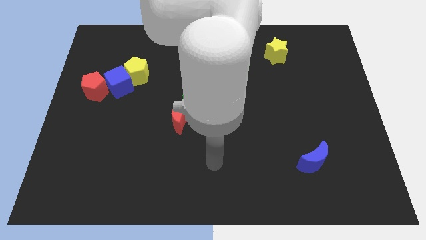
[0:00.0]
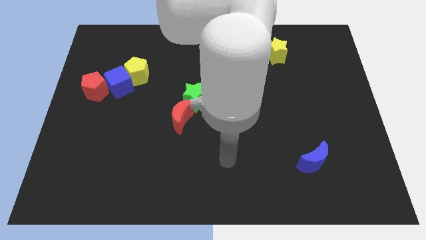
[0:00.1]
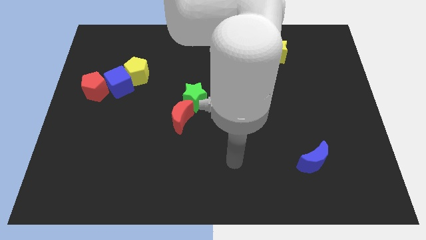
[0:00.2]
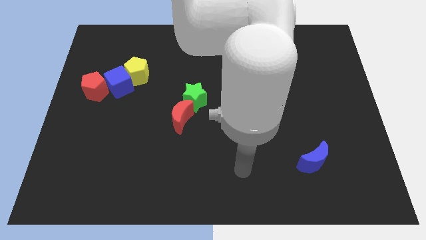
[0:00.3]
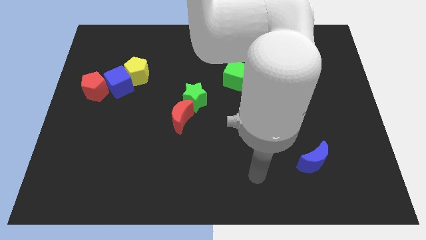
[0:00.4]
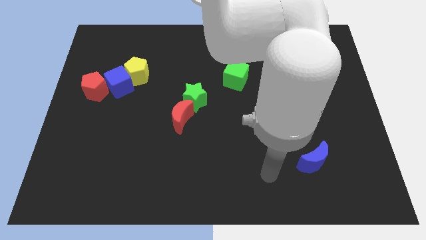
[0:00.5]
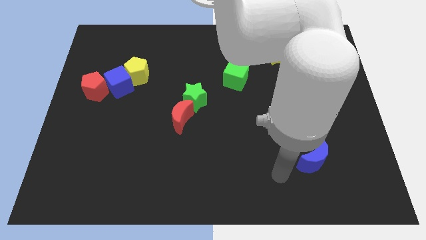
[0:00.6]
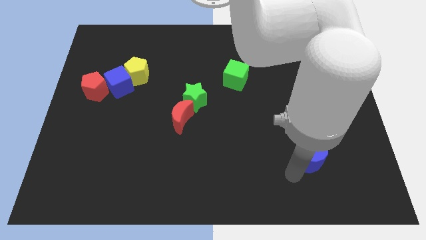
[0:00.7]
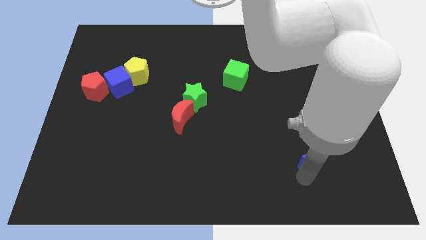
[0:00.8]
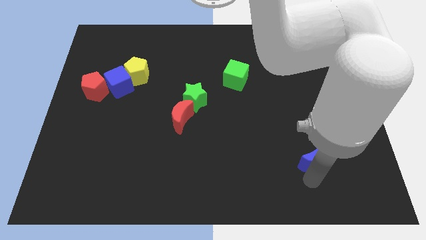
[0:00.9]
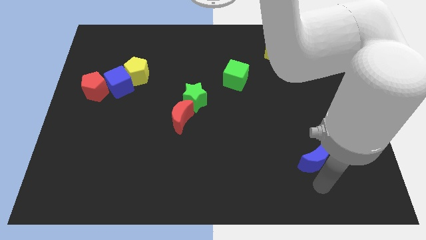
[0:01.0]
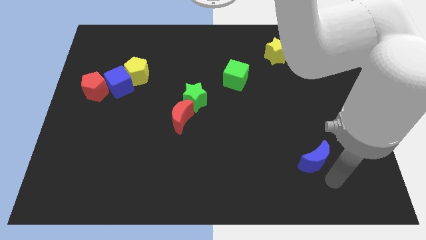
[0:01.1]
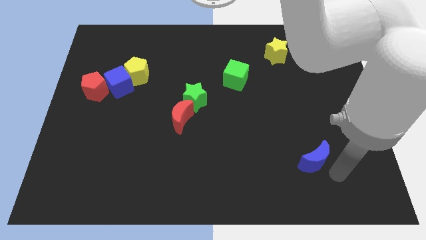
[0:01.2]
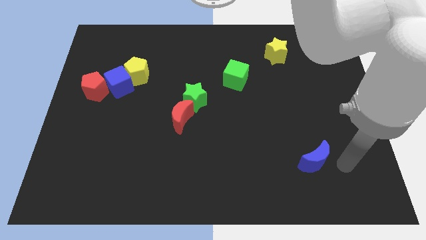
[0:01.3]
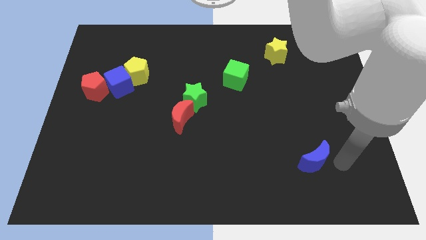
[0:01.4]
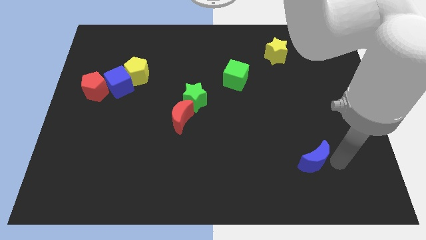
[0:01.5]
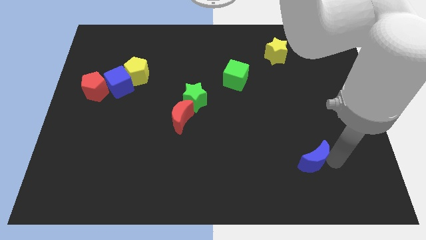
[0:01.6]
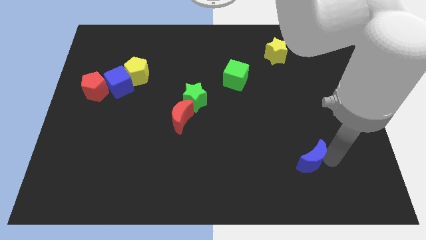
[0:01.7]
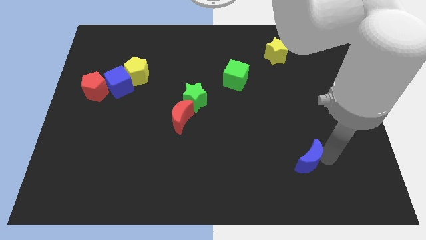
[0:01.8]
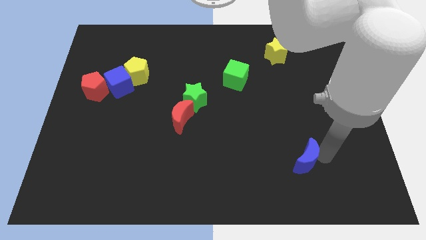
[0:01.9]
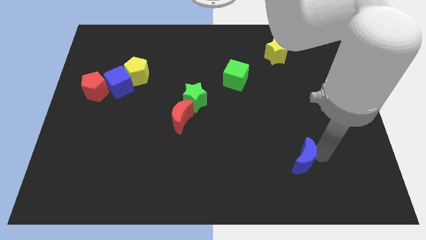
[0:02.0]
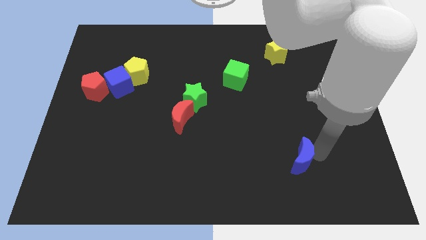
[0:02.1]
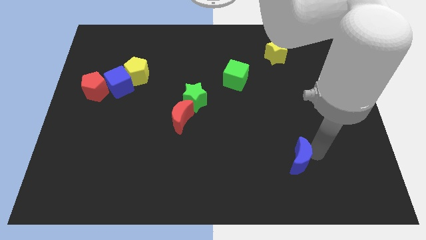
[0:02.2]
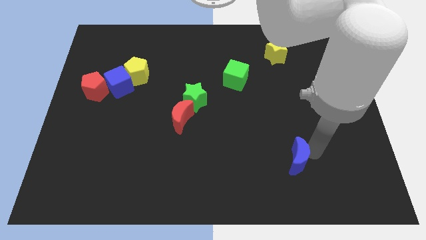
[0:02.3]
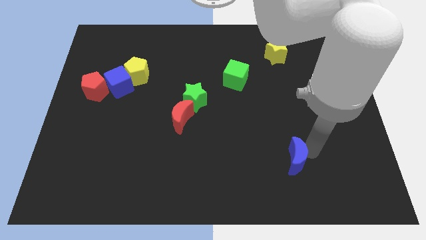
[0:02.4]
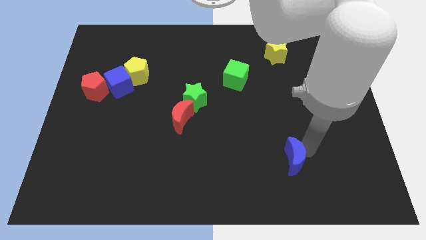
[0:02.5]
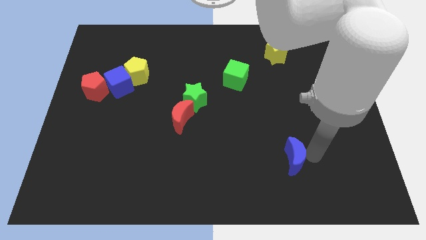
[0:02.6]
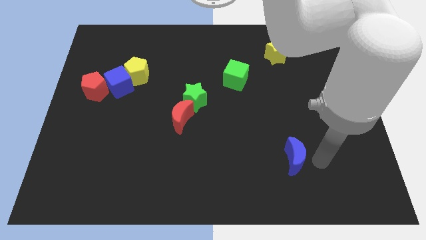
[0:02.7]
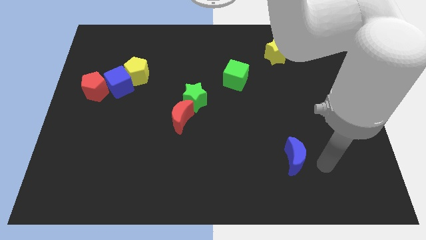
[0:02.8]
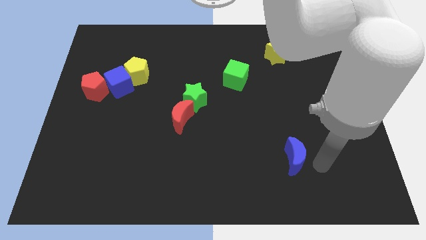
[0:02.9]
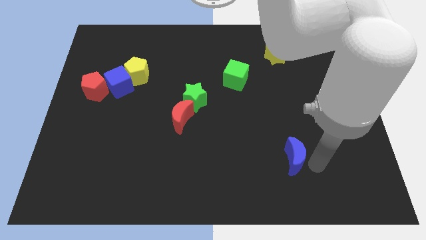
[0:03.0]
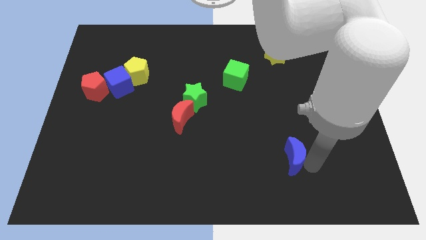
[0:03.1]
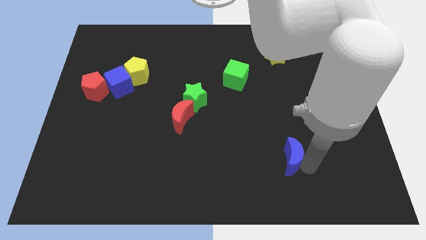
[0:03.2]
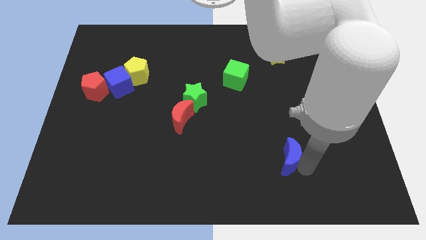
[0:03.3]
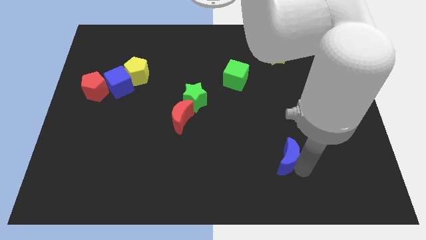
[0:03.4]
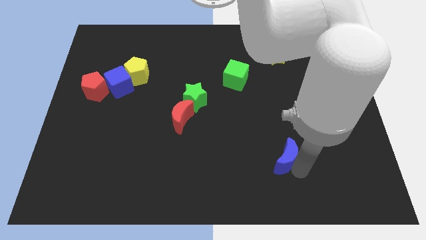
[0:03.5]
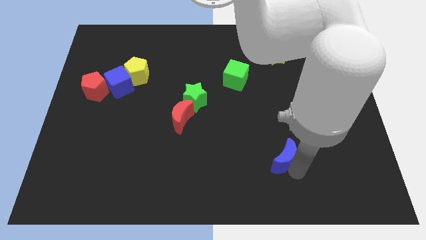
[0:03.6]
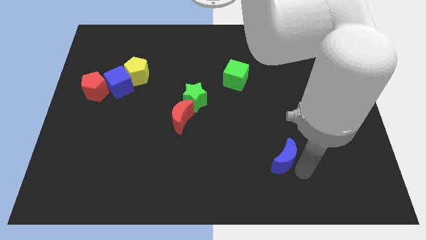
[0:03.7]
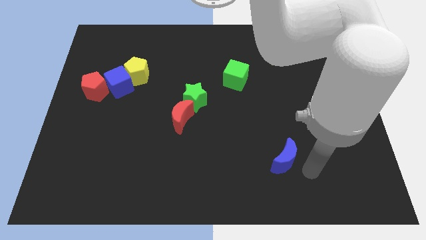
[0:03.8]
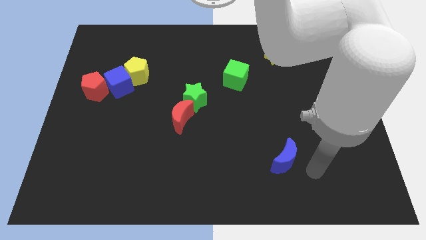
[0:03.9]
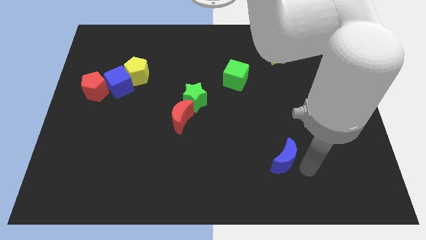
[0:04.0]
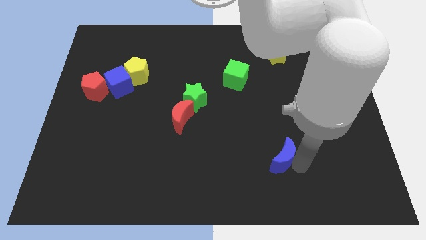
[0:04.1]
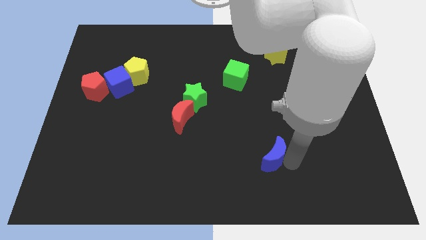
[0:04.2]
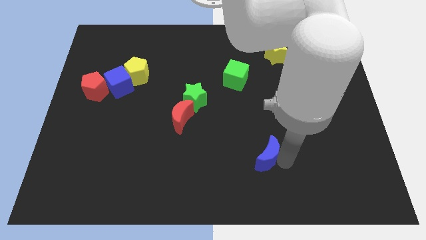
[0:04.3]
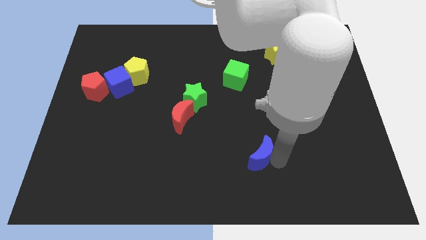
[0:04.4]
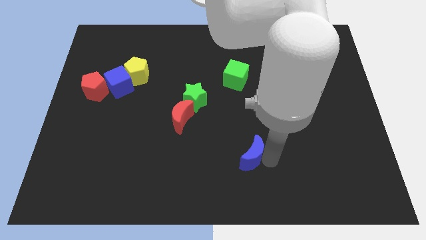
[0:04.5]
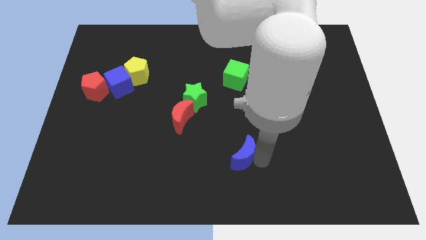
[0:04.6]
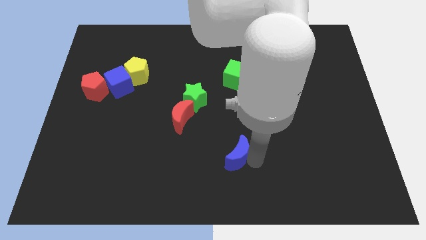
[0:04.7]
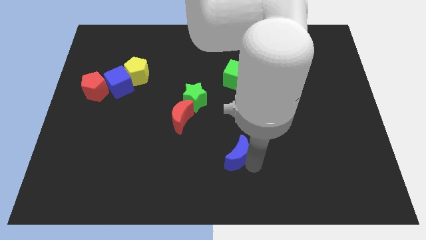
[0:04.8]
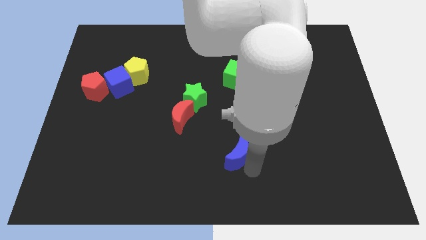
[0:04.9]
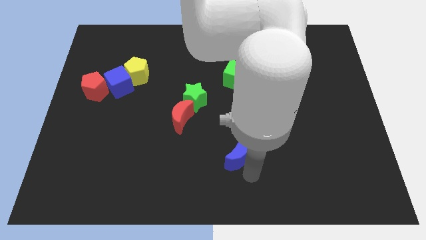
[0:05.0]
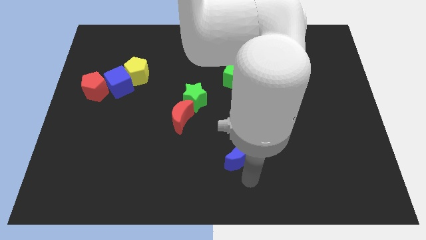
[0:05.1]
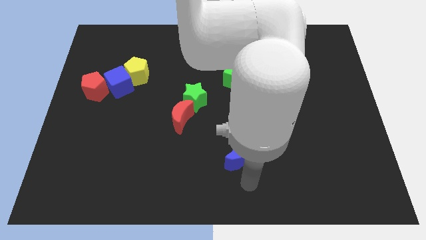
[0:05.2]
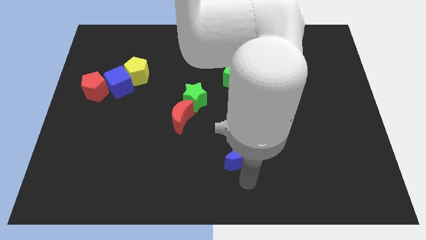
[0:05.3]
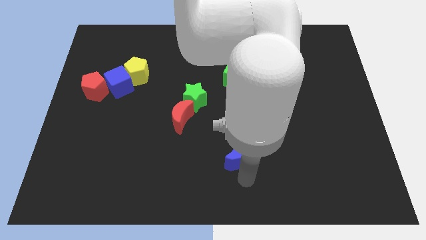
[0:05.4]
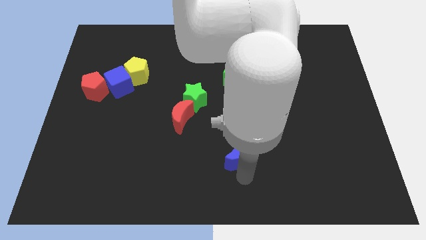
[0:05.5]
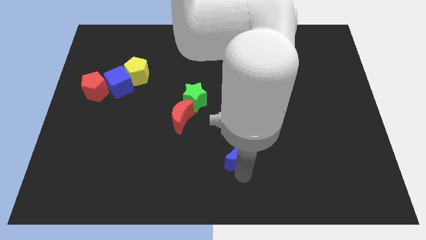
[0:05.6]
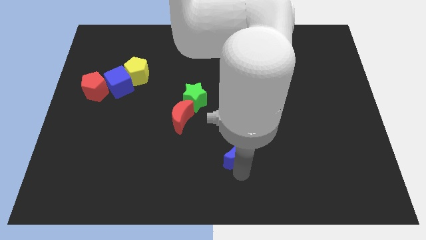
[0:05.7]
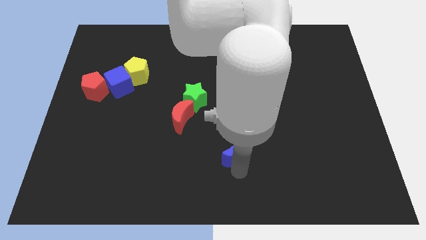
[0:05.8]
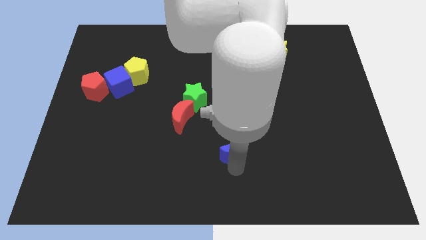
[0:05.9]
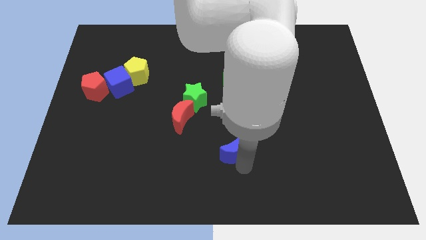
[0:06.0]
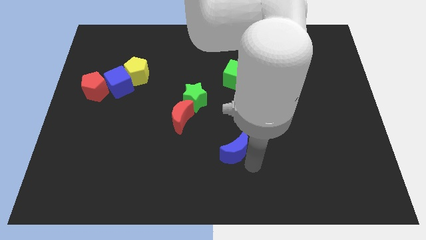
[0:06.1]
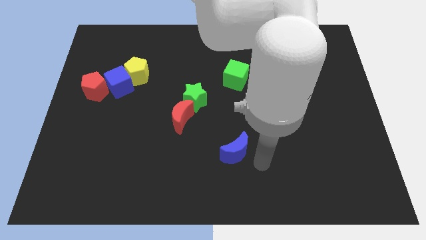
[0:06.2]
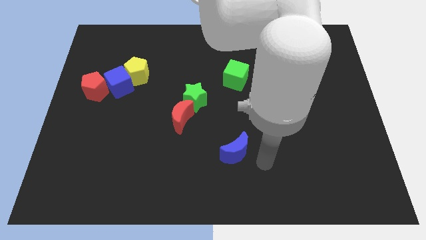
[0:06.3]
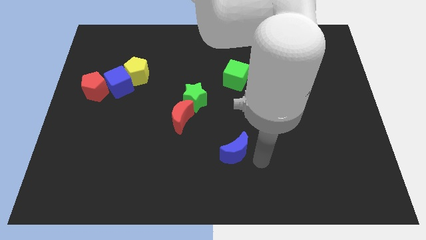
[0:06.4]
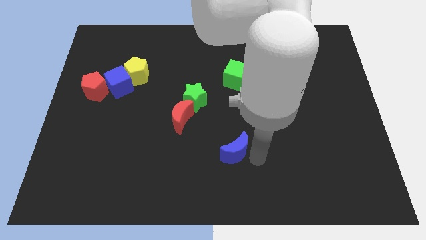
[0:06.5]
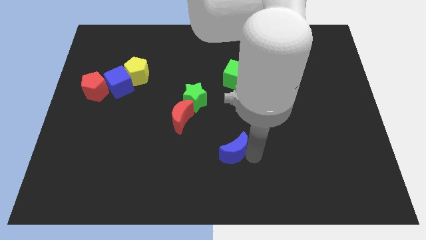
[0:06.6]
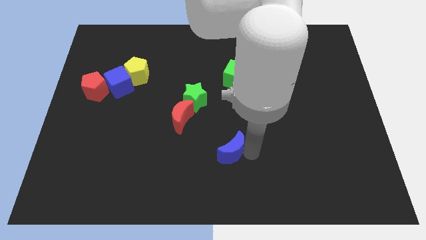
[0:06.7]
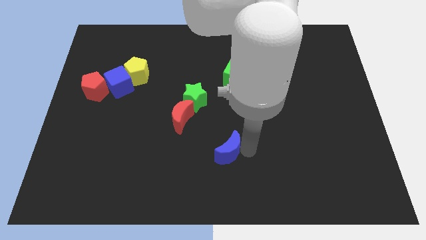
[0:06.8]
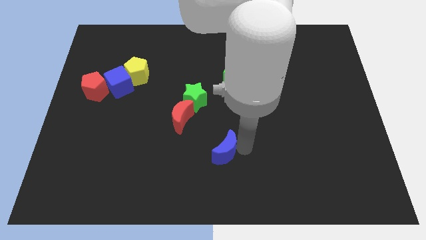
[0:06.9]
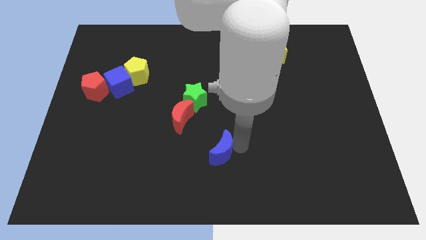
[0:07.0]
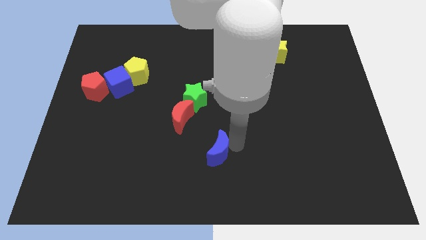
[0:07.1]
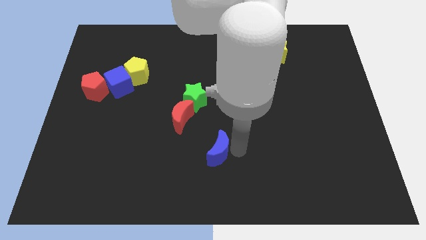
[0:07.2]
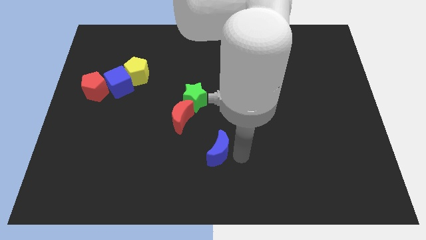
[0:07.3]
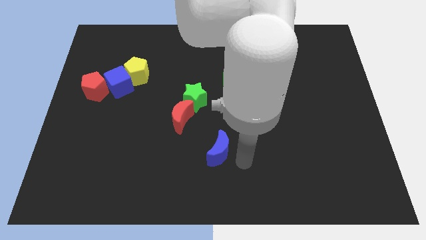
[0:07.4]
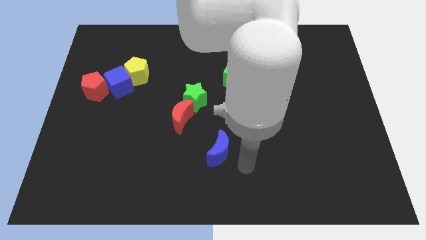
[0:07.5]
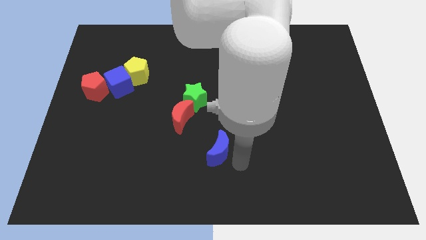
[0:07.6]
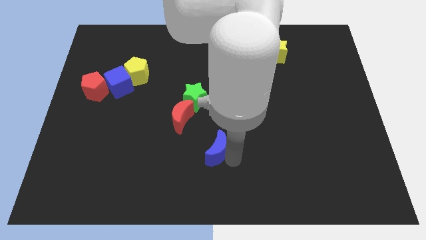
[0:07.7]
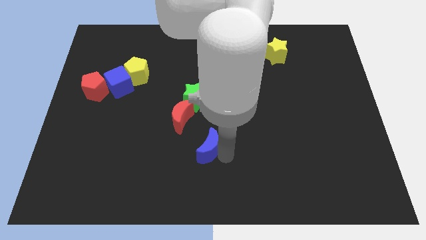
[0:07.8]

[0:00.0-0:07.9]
slide the blue moon to the bottom of the green star
